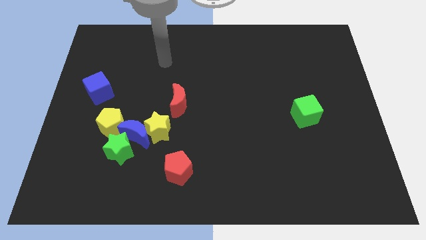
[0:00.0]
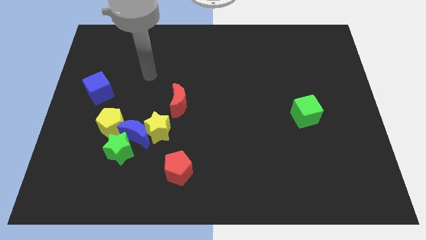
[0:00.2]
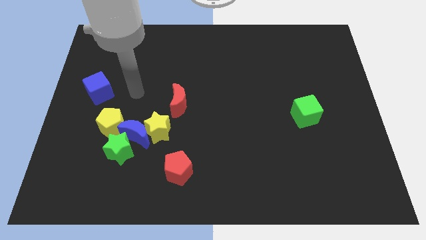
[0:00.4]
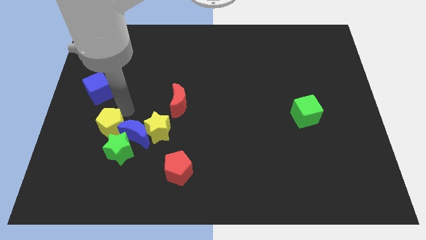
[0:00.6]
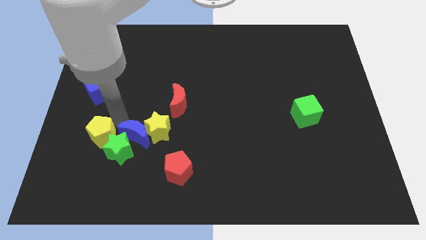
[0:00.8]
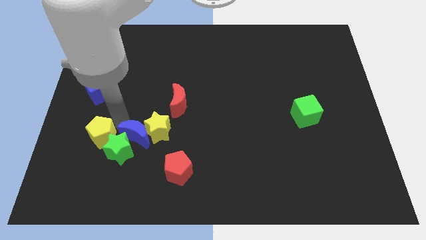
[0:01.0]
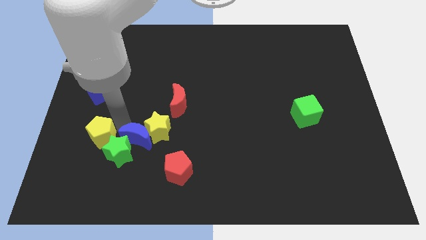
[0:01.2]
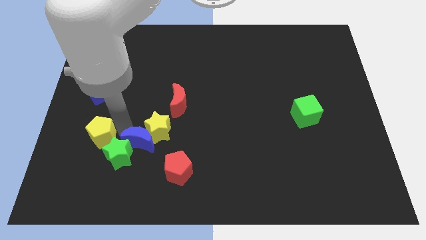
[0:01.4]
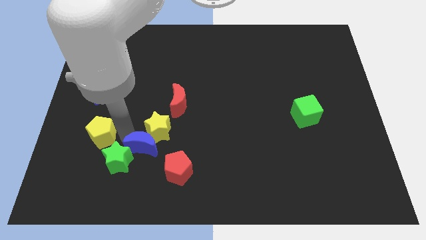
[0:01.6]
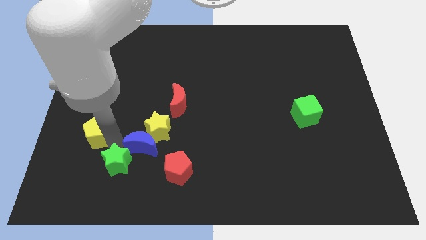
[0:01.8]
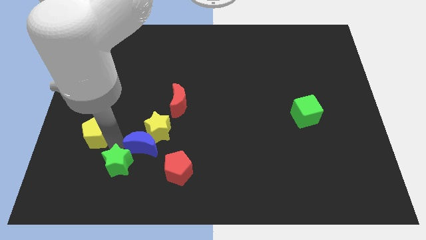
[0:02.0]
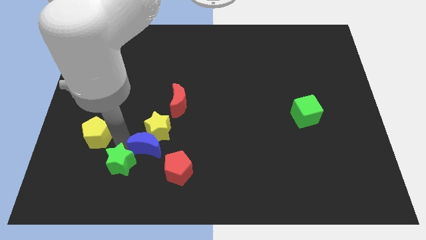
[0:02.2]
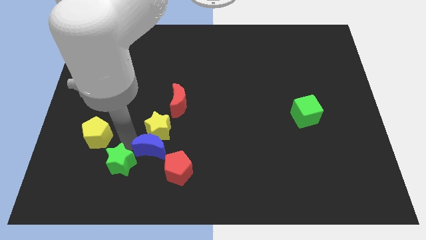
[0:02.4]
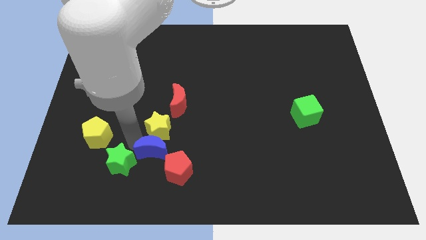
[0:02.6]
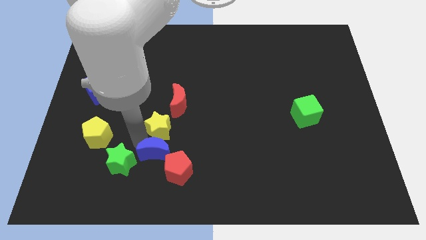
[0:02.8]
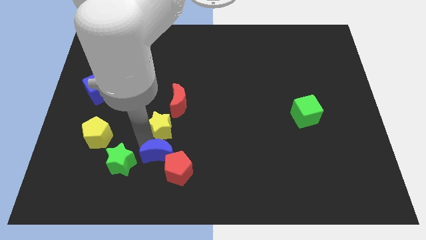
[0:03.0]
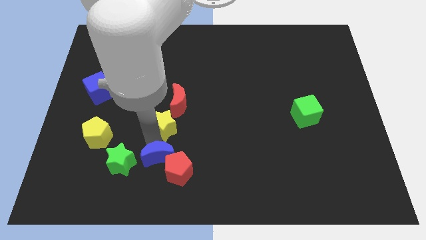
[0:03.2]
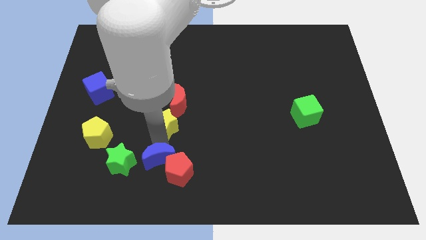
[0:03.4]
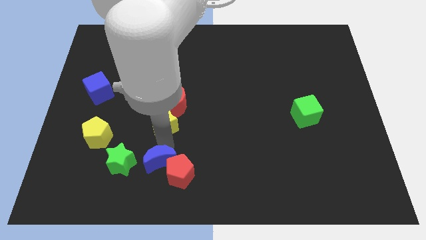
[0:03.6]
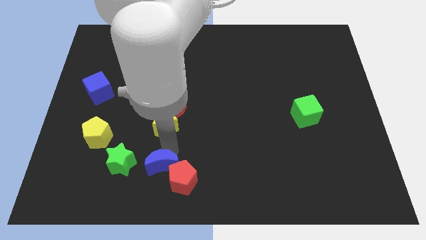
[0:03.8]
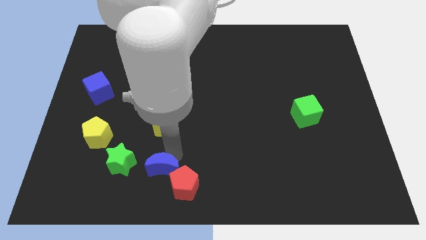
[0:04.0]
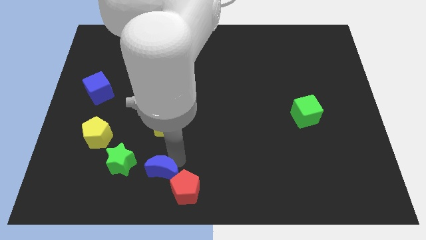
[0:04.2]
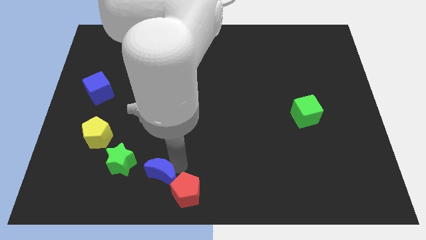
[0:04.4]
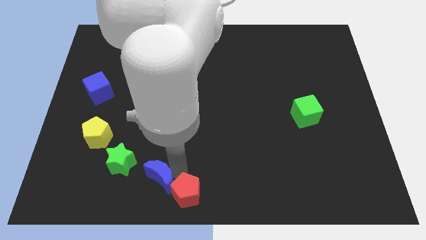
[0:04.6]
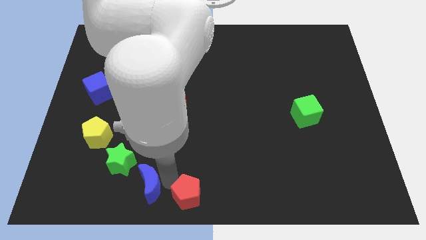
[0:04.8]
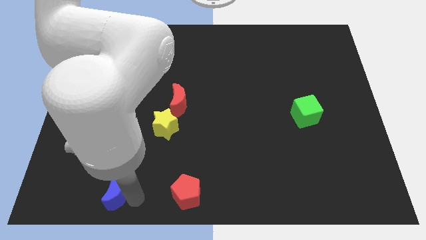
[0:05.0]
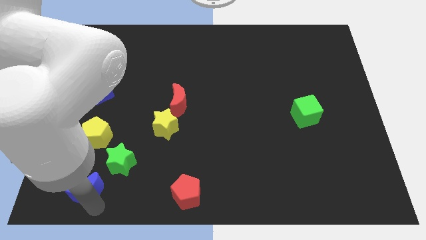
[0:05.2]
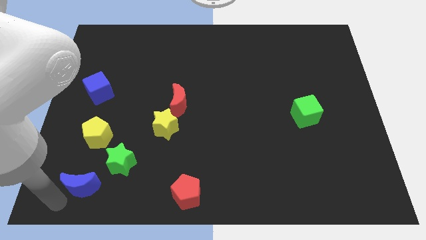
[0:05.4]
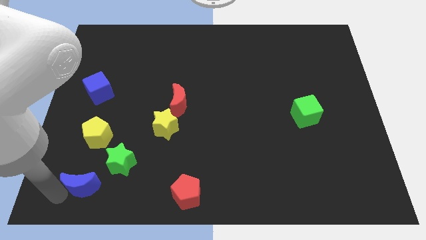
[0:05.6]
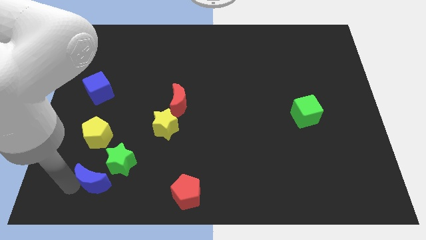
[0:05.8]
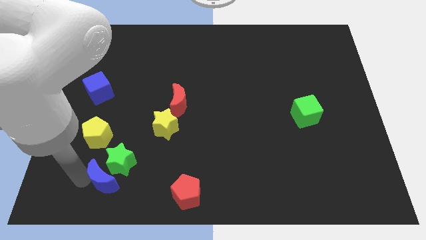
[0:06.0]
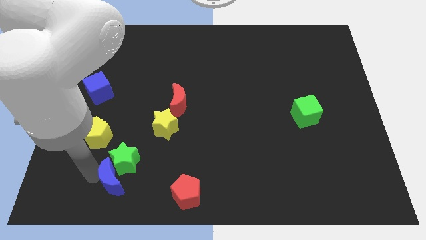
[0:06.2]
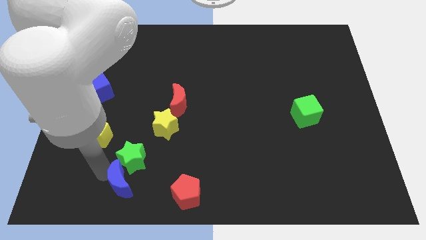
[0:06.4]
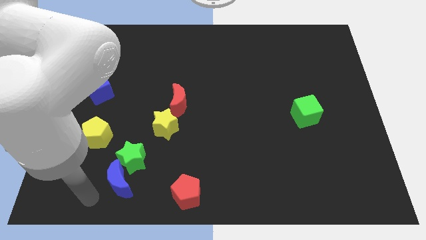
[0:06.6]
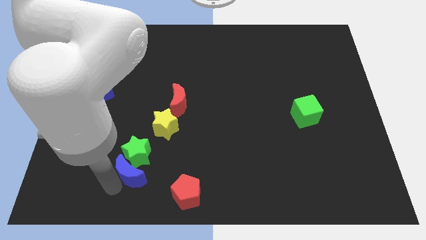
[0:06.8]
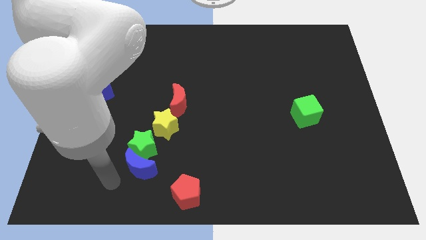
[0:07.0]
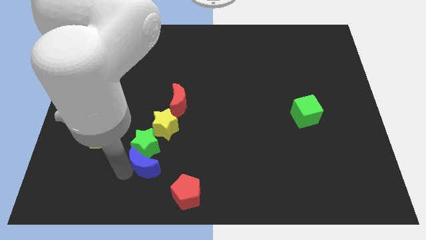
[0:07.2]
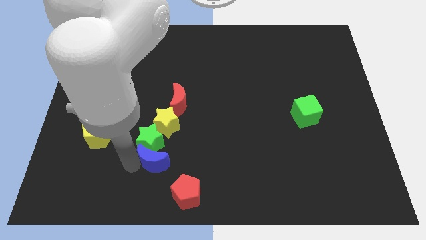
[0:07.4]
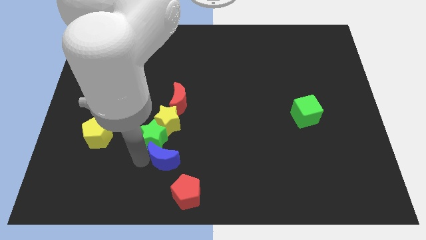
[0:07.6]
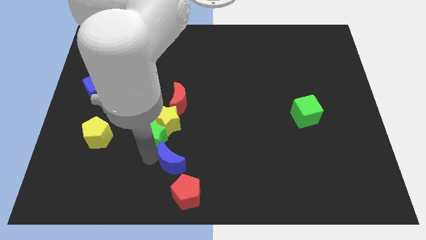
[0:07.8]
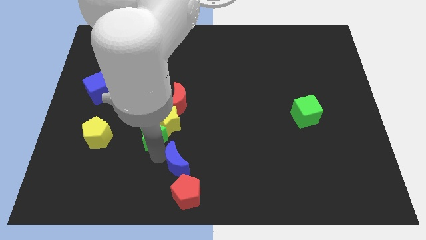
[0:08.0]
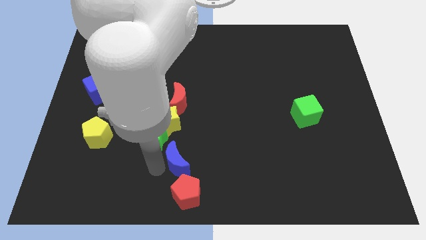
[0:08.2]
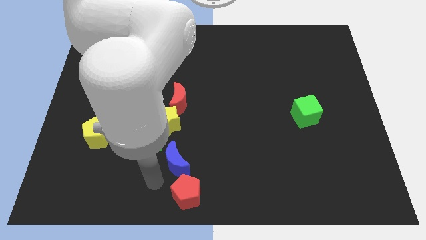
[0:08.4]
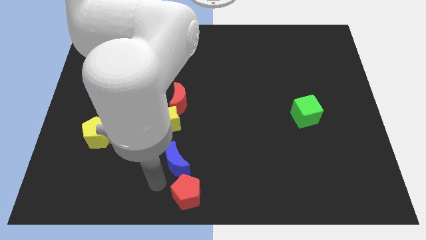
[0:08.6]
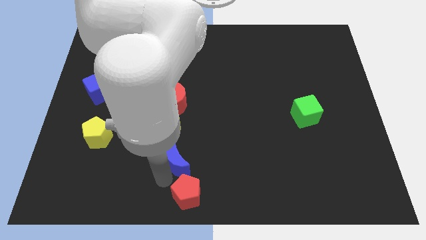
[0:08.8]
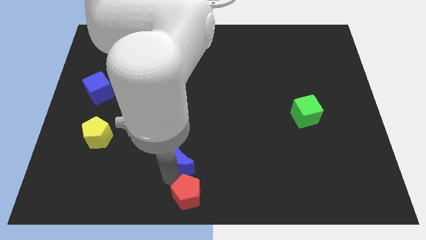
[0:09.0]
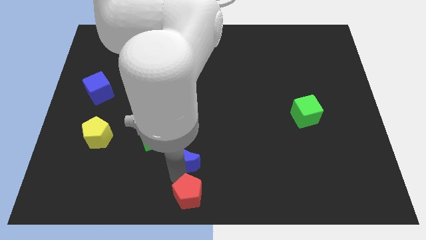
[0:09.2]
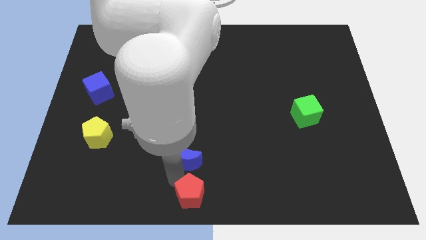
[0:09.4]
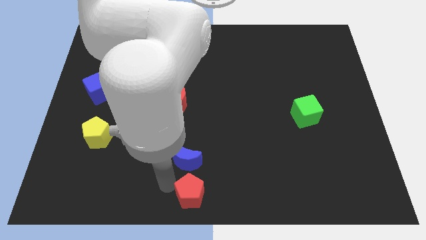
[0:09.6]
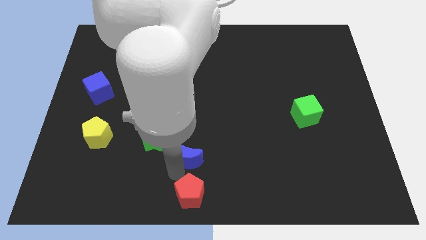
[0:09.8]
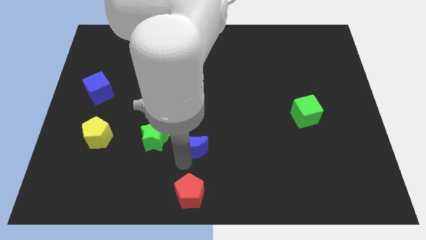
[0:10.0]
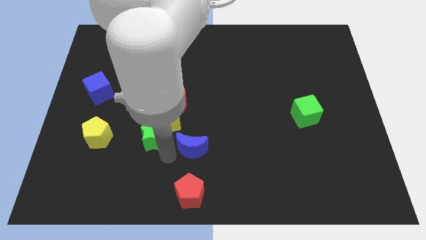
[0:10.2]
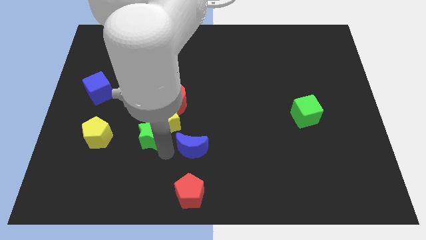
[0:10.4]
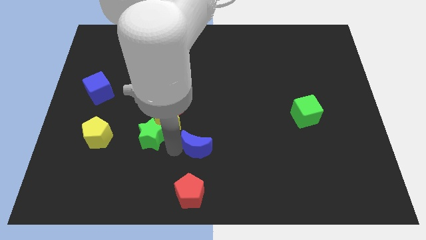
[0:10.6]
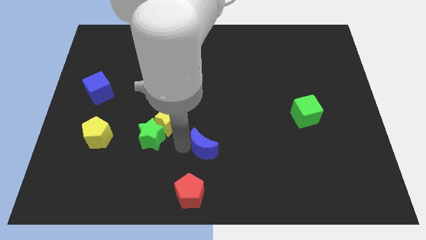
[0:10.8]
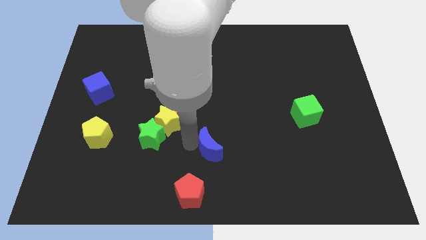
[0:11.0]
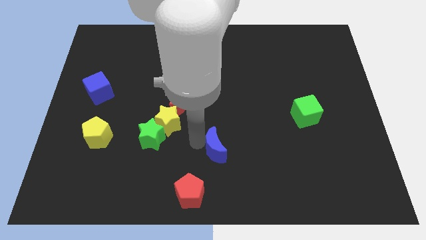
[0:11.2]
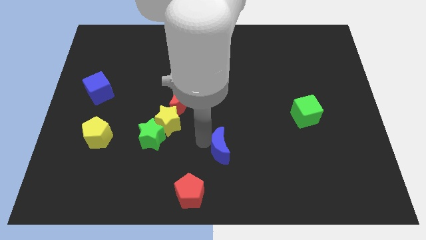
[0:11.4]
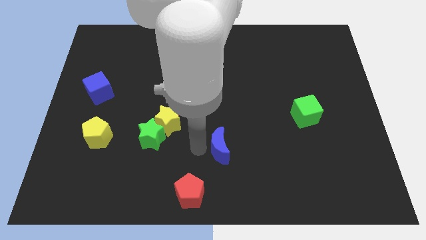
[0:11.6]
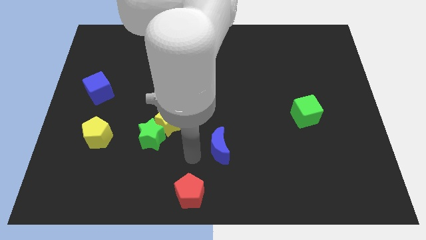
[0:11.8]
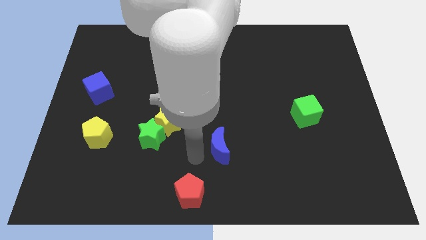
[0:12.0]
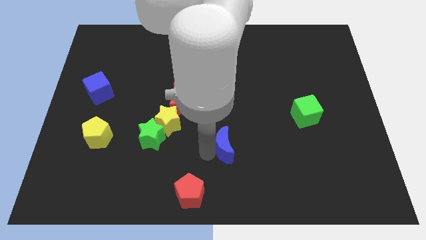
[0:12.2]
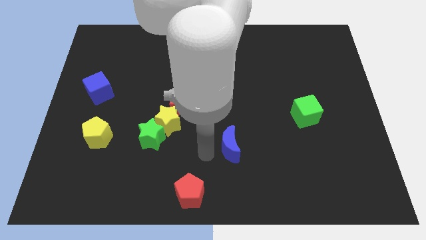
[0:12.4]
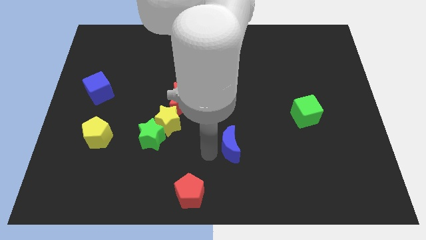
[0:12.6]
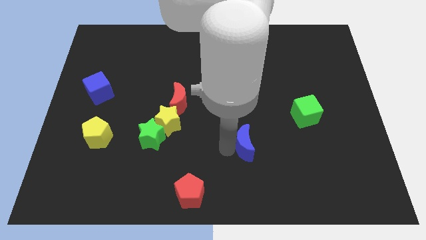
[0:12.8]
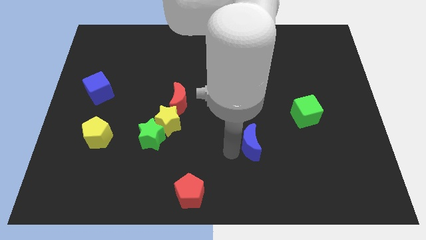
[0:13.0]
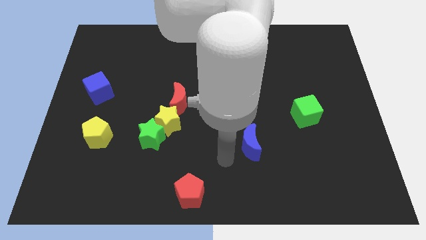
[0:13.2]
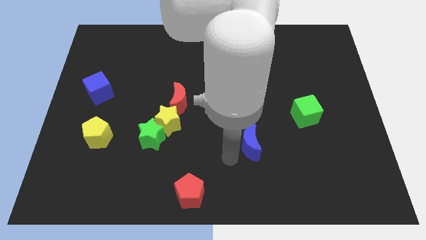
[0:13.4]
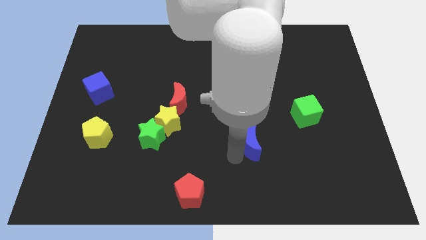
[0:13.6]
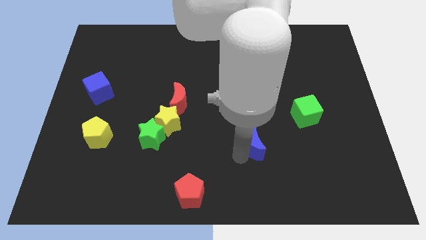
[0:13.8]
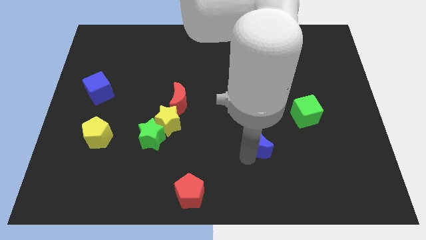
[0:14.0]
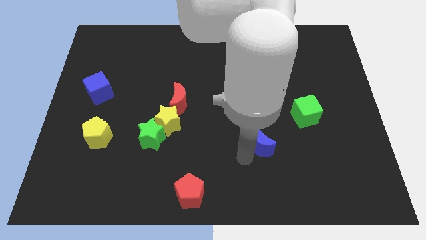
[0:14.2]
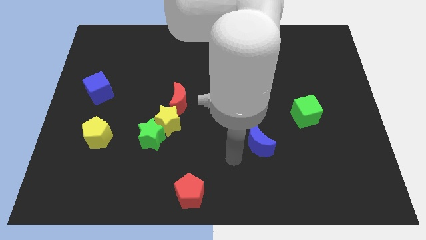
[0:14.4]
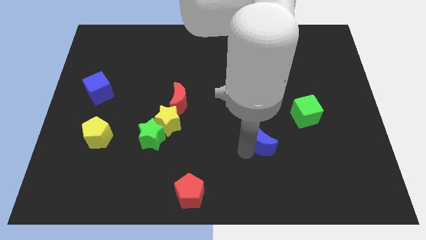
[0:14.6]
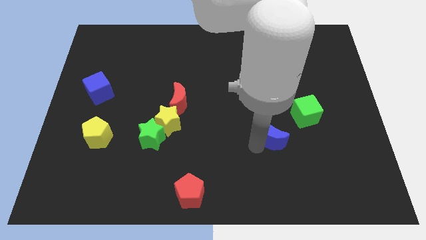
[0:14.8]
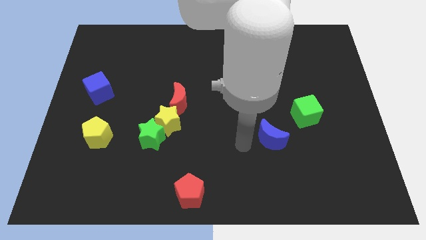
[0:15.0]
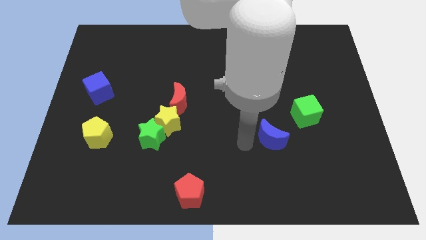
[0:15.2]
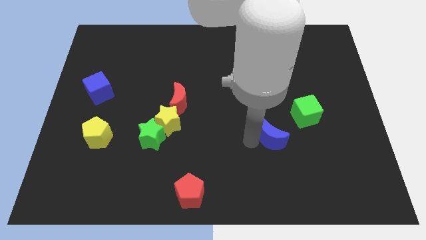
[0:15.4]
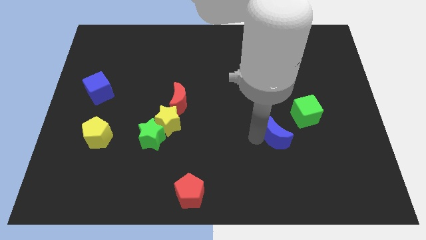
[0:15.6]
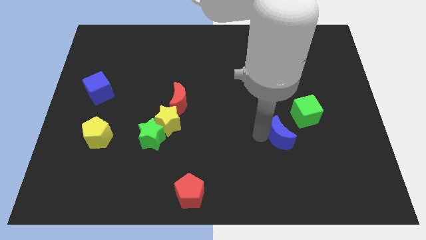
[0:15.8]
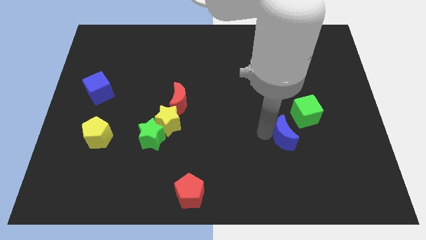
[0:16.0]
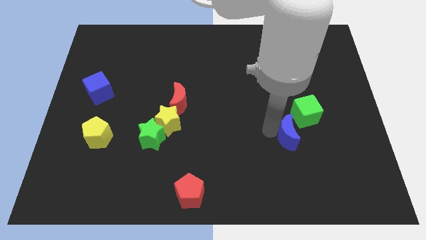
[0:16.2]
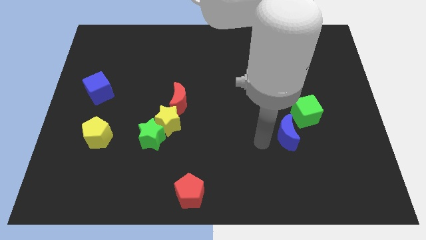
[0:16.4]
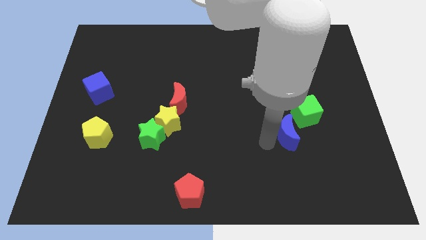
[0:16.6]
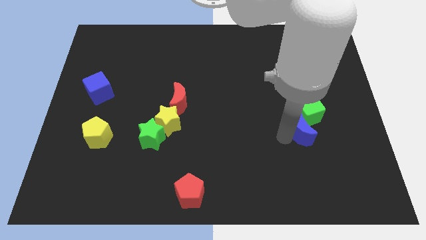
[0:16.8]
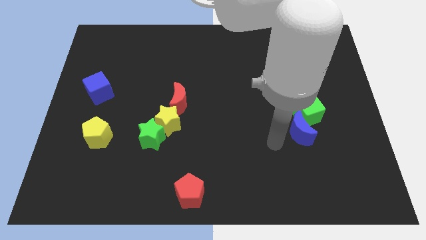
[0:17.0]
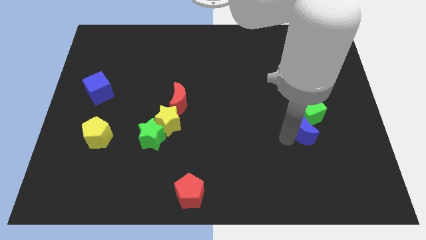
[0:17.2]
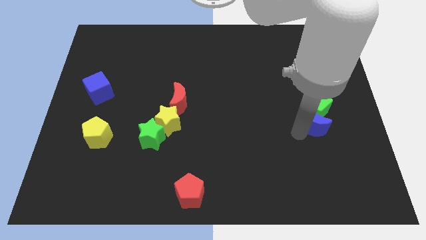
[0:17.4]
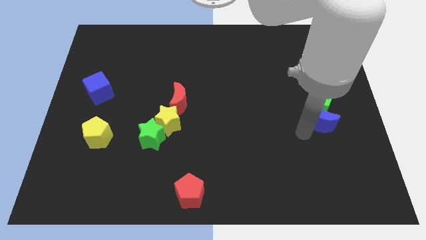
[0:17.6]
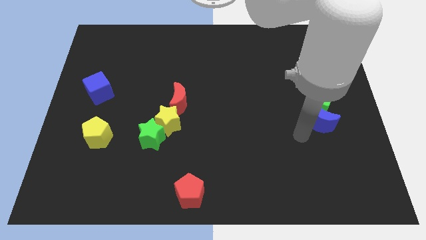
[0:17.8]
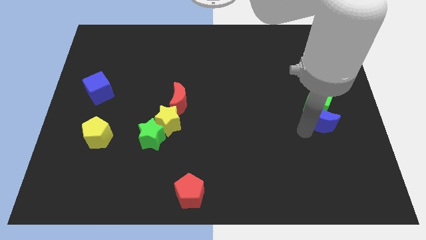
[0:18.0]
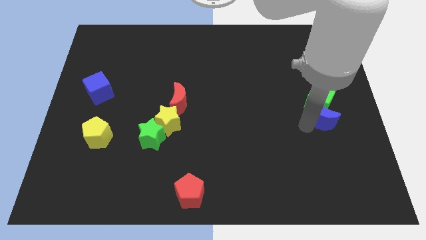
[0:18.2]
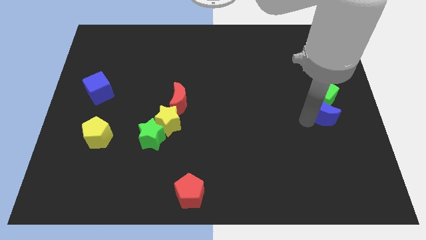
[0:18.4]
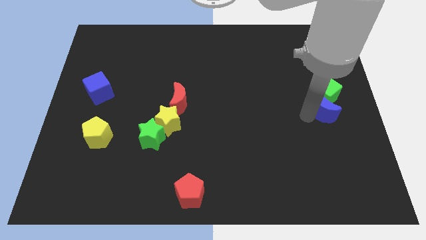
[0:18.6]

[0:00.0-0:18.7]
put the blue moon to the right side of the board
